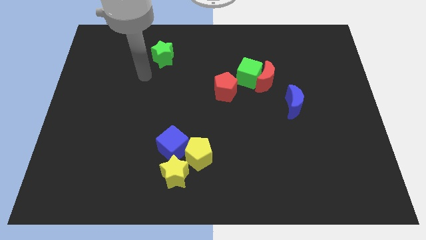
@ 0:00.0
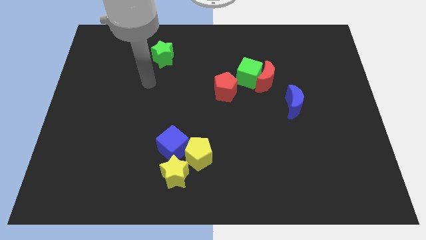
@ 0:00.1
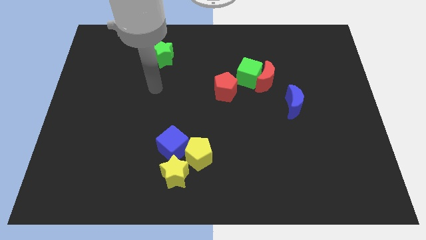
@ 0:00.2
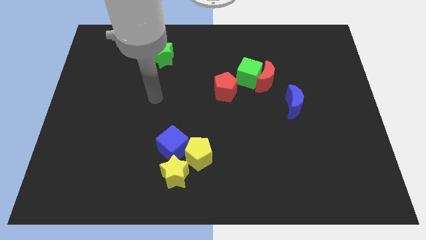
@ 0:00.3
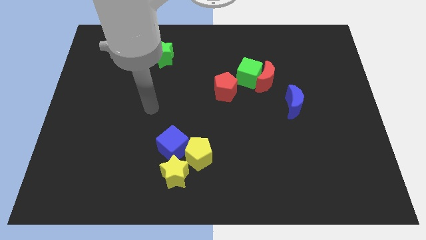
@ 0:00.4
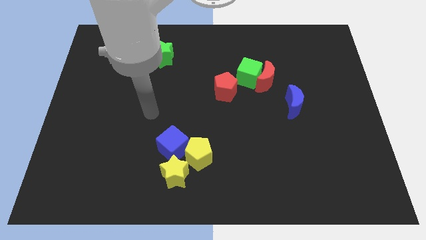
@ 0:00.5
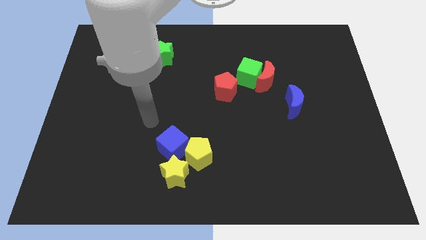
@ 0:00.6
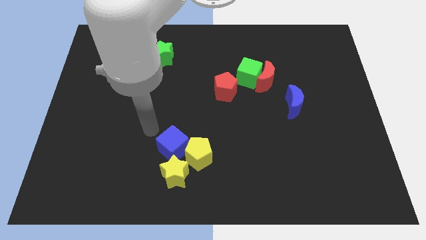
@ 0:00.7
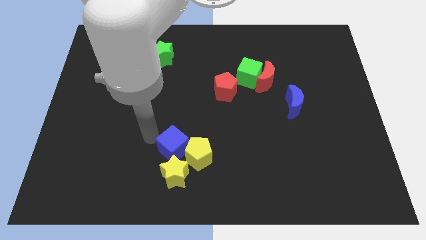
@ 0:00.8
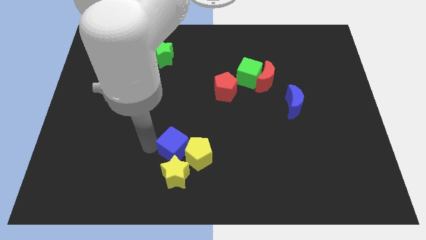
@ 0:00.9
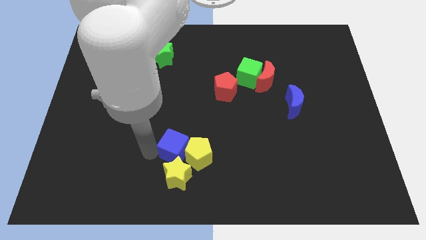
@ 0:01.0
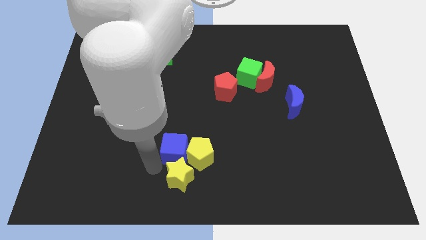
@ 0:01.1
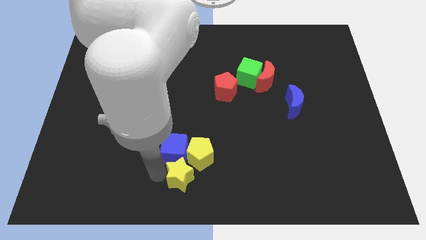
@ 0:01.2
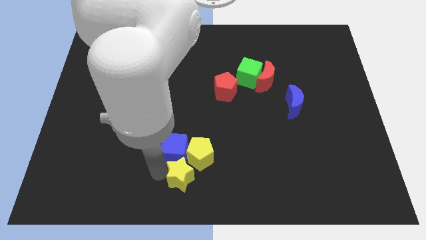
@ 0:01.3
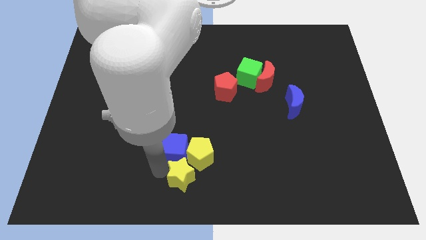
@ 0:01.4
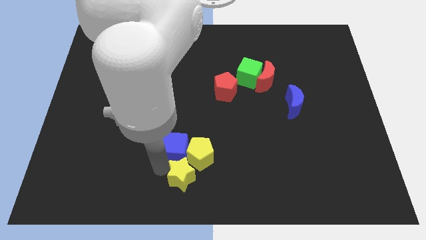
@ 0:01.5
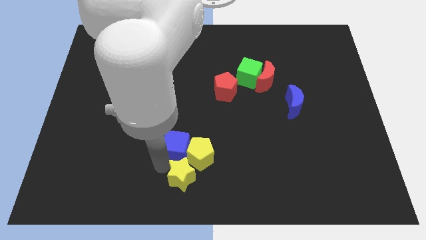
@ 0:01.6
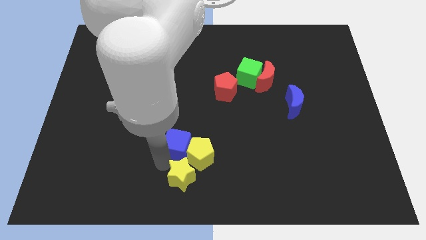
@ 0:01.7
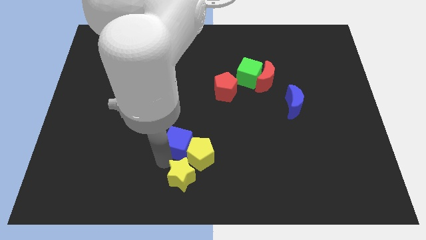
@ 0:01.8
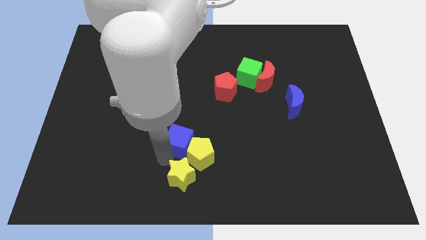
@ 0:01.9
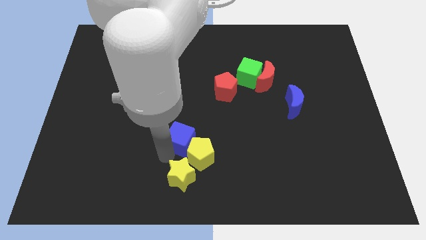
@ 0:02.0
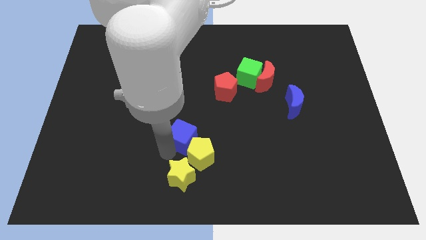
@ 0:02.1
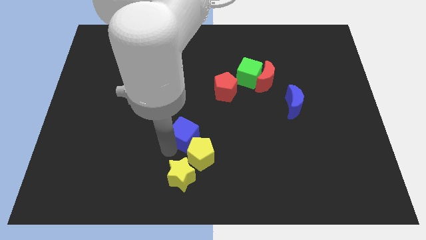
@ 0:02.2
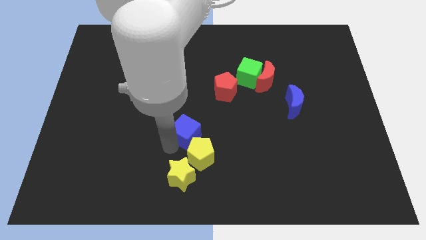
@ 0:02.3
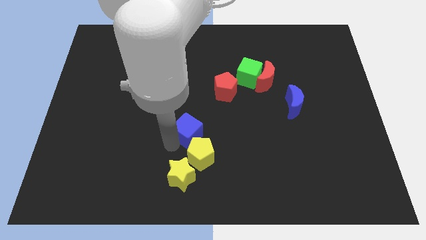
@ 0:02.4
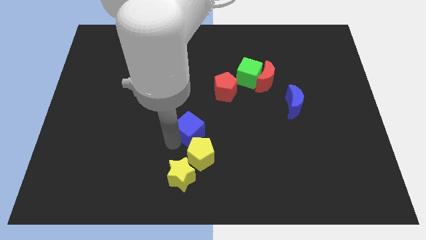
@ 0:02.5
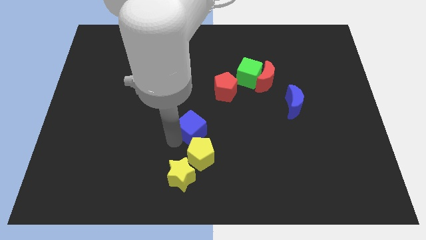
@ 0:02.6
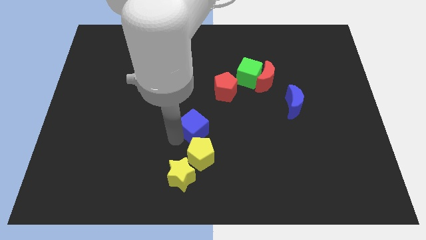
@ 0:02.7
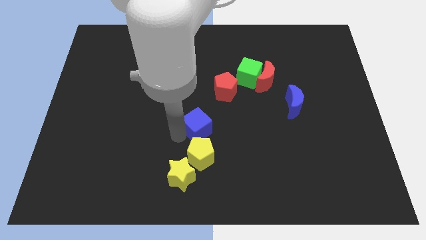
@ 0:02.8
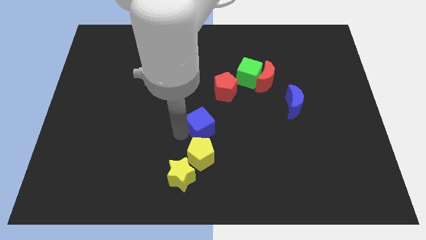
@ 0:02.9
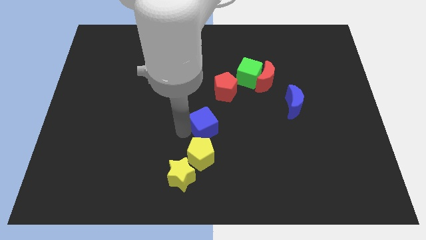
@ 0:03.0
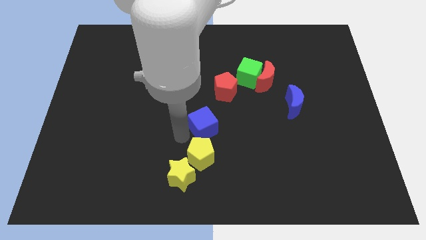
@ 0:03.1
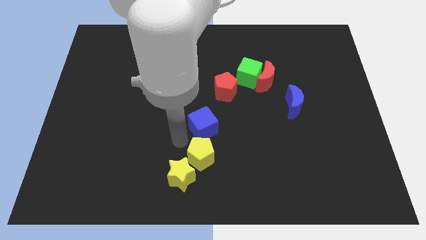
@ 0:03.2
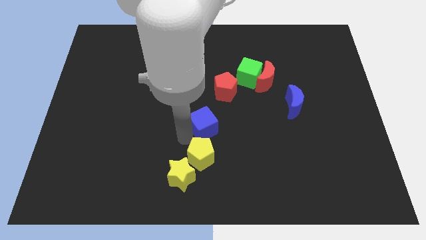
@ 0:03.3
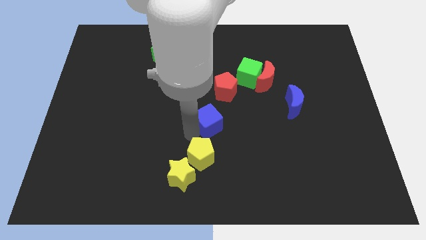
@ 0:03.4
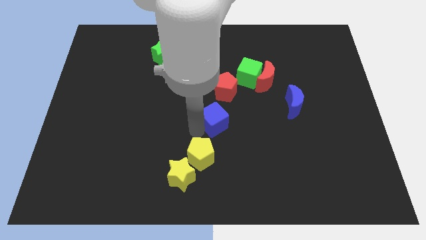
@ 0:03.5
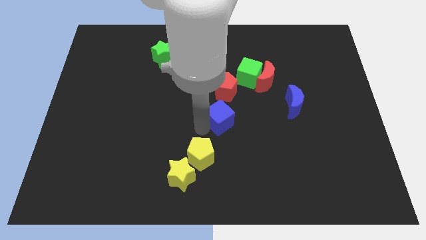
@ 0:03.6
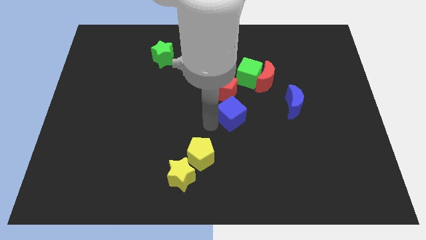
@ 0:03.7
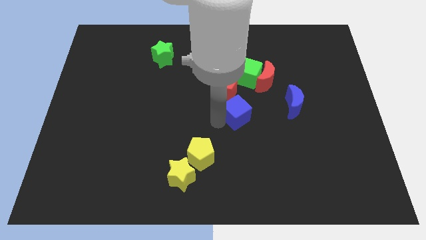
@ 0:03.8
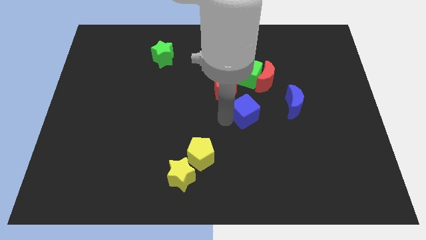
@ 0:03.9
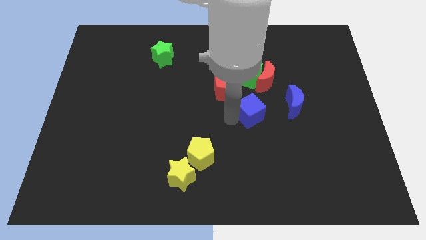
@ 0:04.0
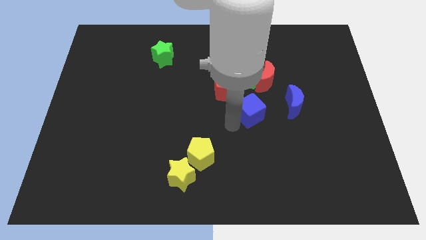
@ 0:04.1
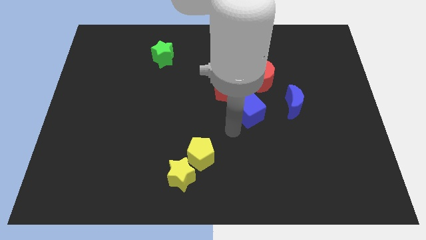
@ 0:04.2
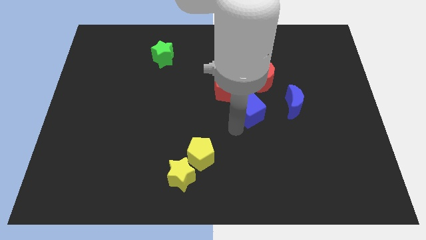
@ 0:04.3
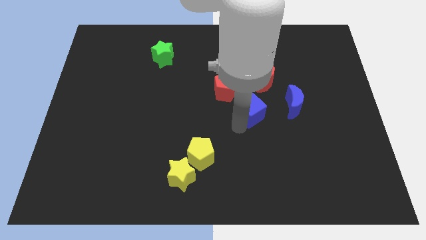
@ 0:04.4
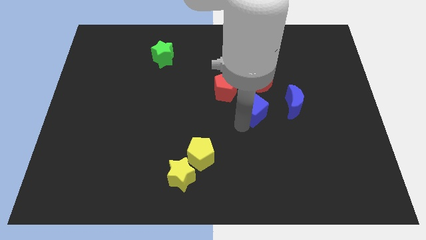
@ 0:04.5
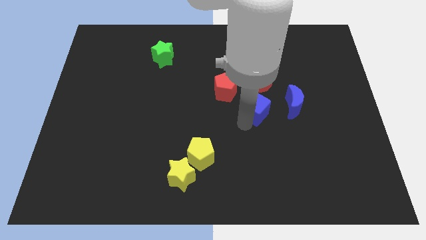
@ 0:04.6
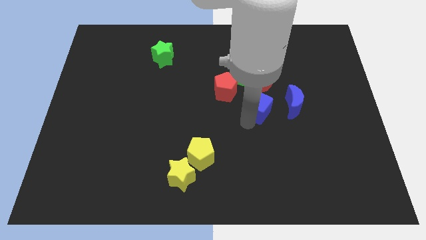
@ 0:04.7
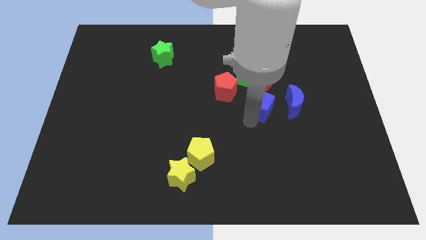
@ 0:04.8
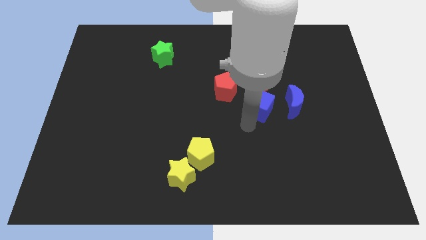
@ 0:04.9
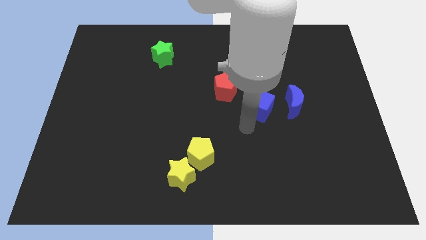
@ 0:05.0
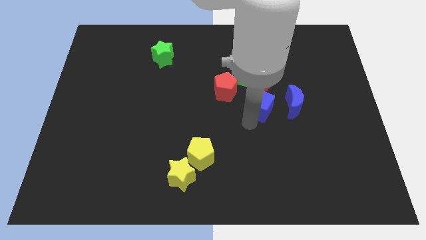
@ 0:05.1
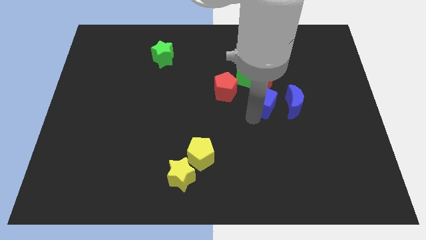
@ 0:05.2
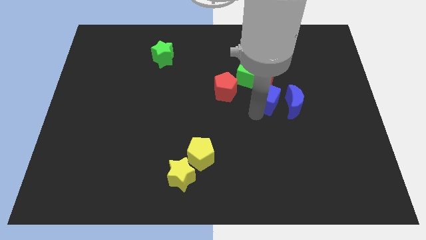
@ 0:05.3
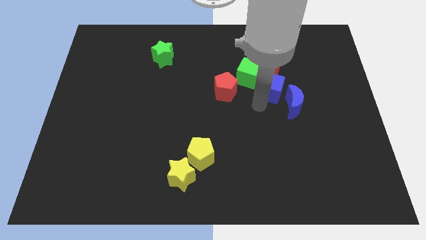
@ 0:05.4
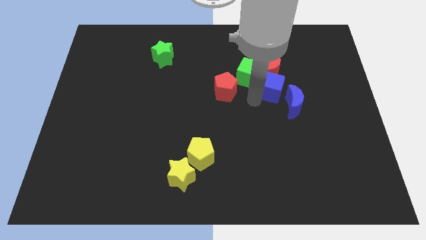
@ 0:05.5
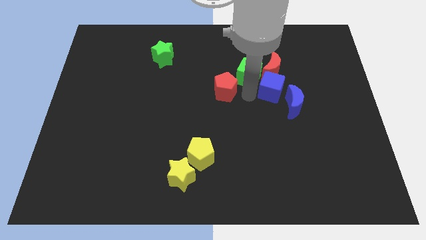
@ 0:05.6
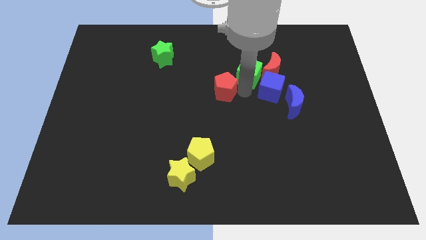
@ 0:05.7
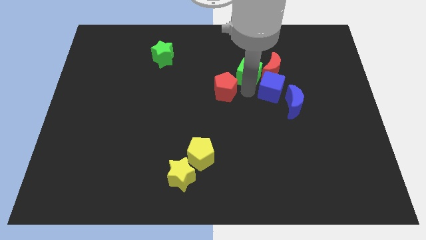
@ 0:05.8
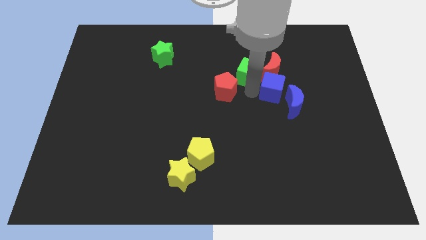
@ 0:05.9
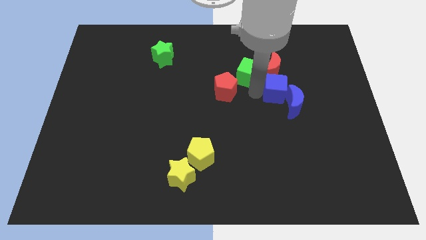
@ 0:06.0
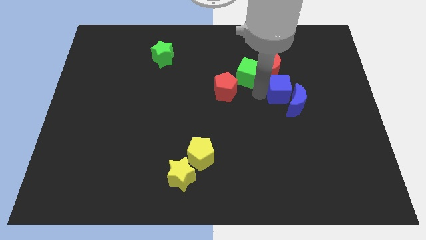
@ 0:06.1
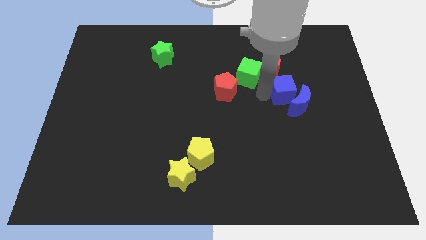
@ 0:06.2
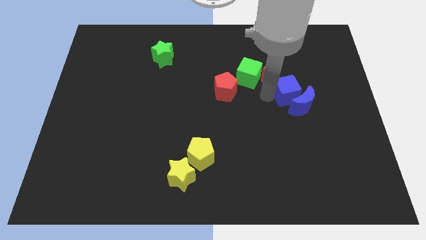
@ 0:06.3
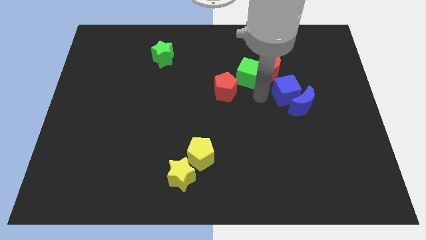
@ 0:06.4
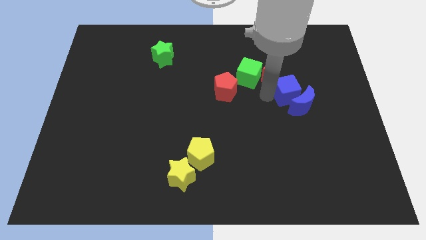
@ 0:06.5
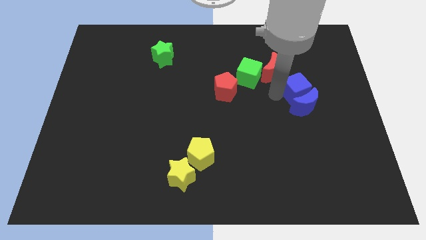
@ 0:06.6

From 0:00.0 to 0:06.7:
slide the blue cube diagonally up and to the right of the blue moon
